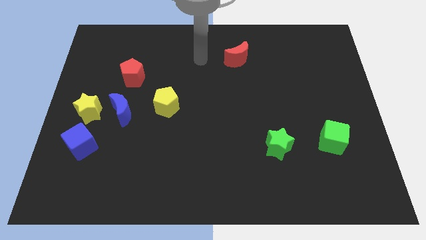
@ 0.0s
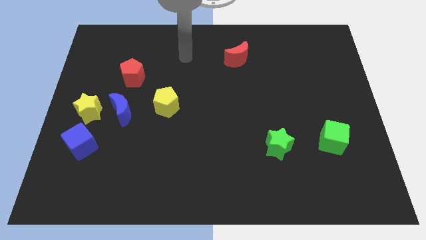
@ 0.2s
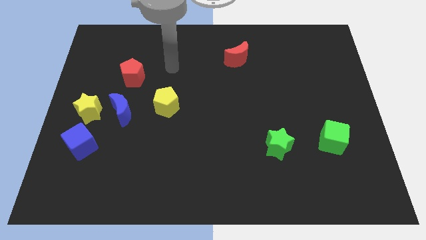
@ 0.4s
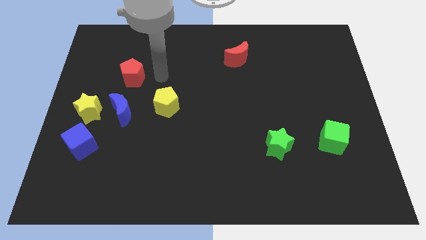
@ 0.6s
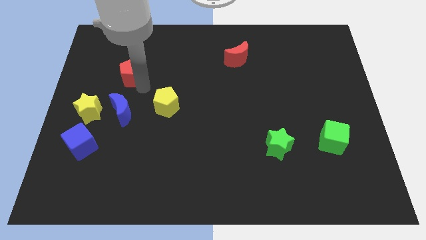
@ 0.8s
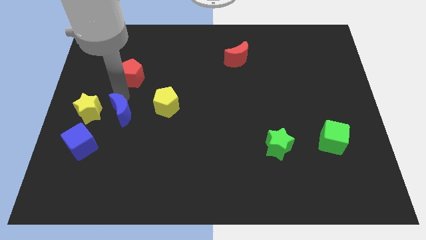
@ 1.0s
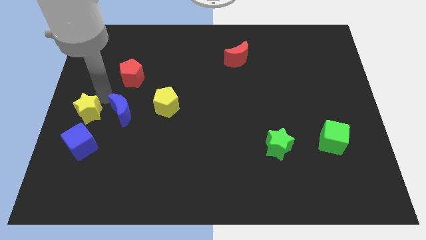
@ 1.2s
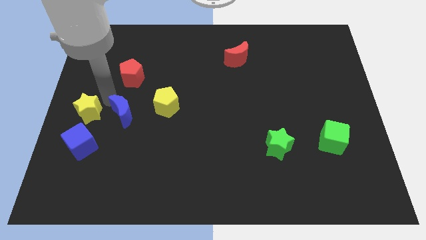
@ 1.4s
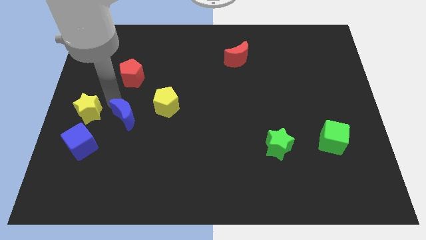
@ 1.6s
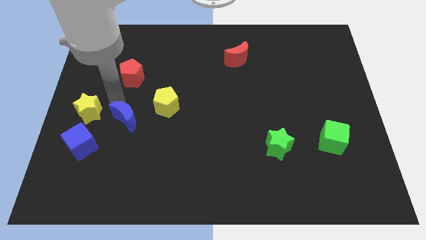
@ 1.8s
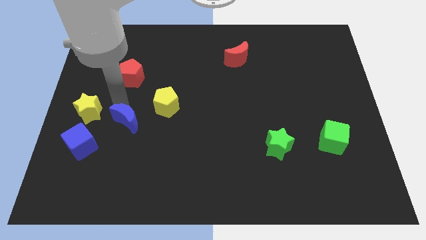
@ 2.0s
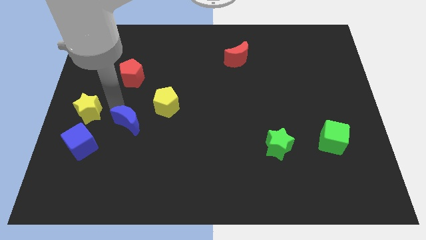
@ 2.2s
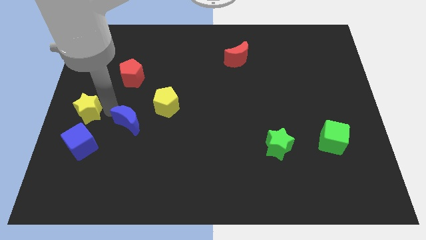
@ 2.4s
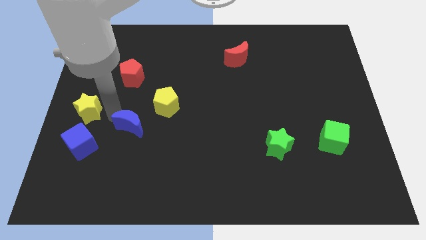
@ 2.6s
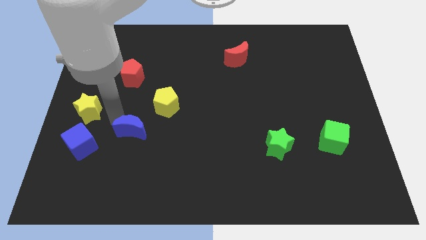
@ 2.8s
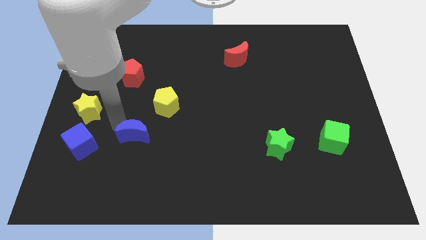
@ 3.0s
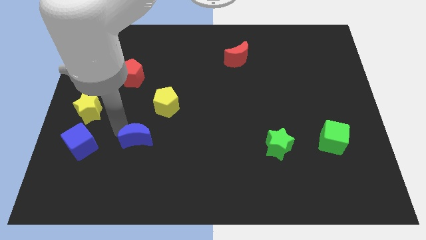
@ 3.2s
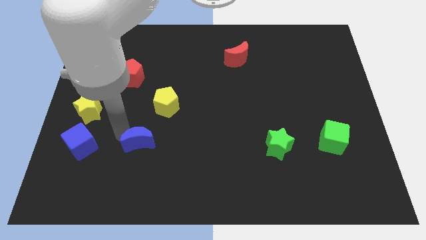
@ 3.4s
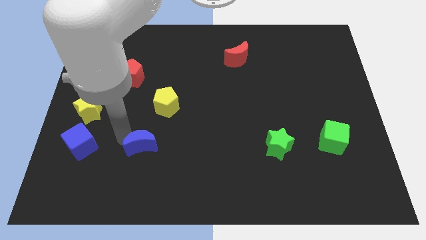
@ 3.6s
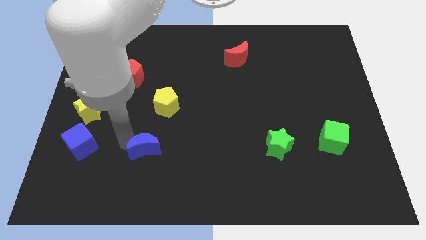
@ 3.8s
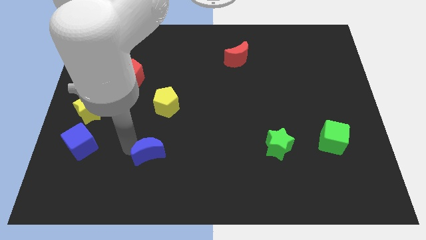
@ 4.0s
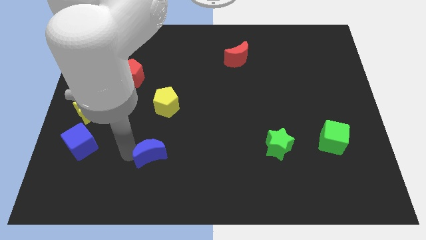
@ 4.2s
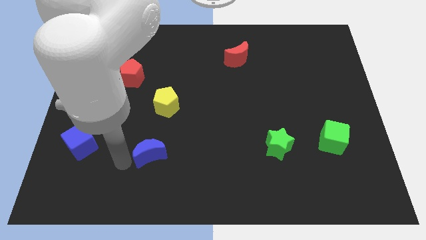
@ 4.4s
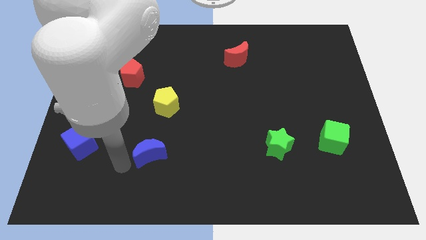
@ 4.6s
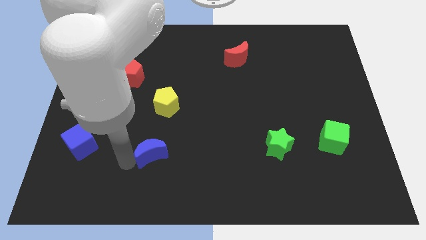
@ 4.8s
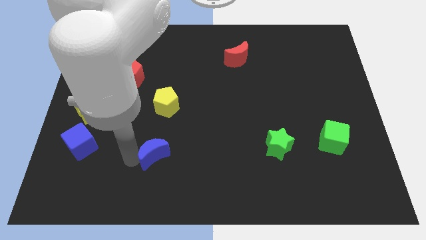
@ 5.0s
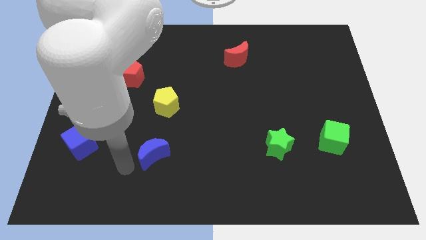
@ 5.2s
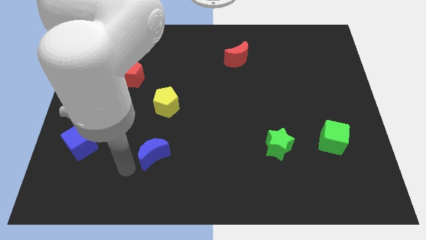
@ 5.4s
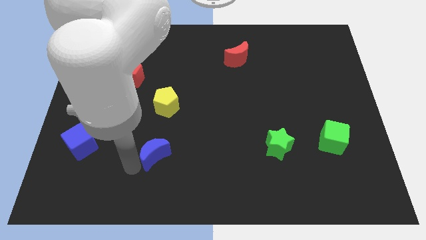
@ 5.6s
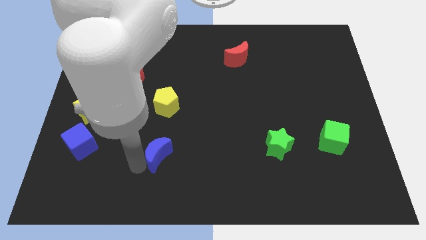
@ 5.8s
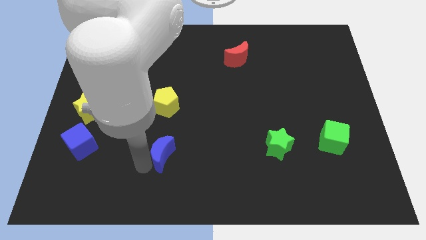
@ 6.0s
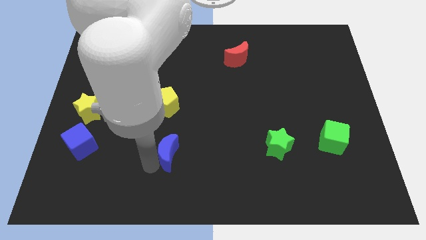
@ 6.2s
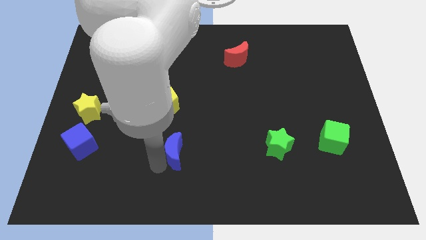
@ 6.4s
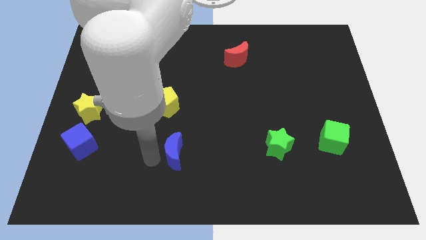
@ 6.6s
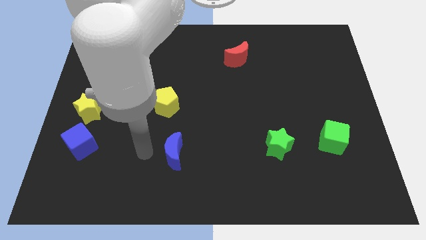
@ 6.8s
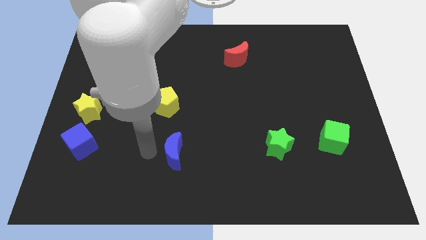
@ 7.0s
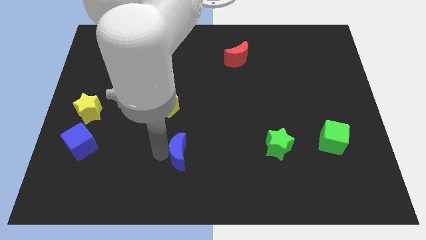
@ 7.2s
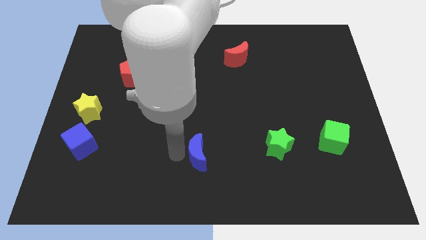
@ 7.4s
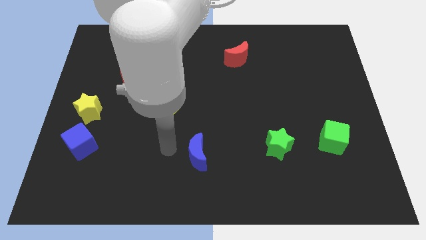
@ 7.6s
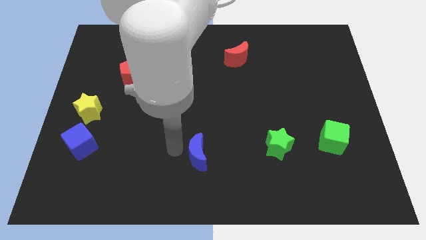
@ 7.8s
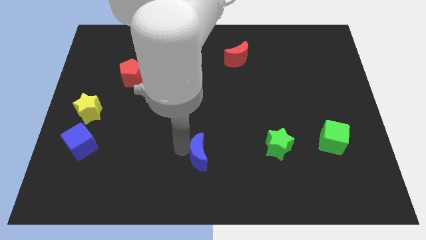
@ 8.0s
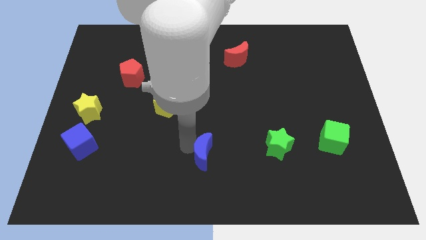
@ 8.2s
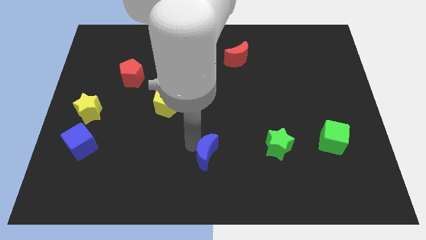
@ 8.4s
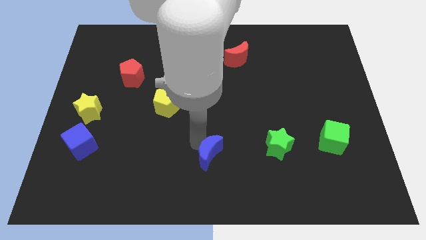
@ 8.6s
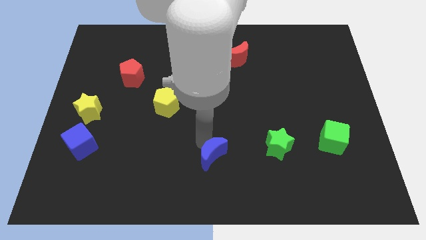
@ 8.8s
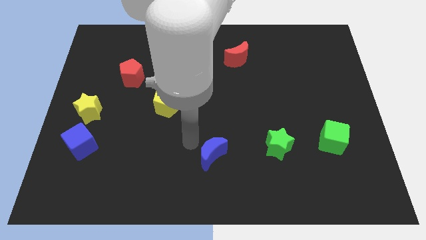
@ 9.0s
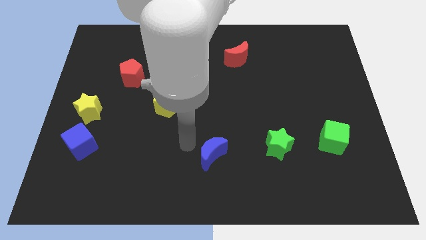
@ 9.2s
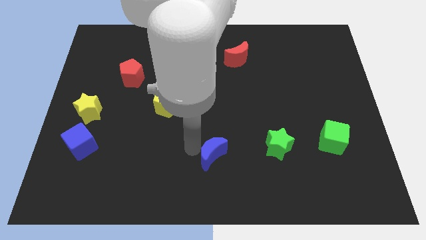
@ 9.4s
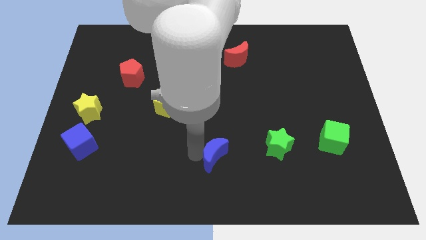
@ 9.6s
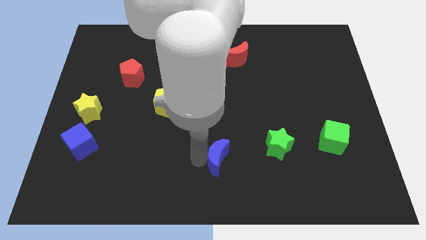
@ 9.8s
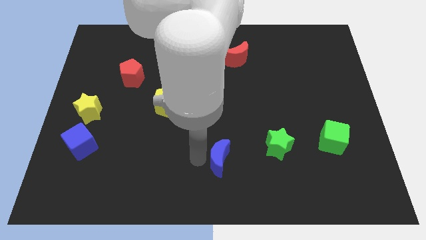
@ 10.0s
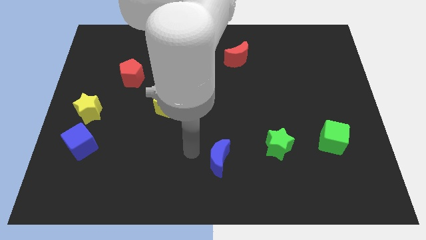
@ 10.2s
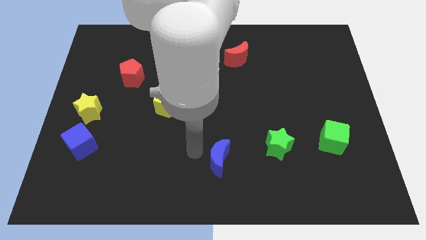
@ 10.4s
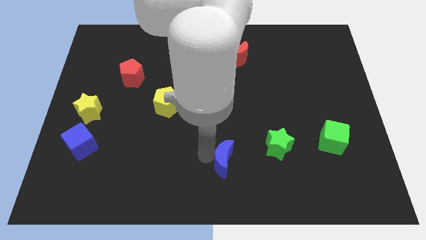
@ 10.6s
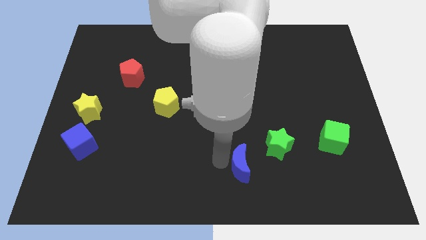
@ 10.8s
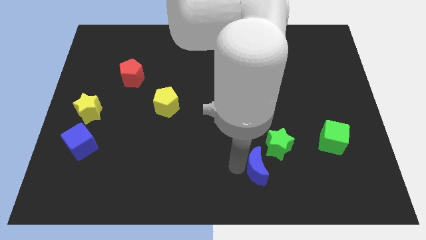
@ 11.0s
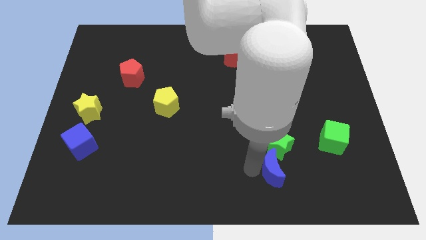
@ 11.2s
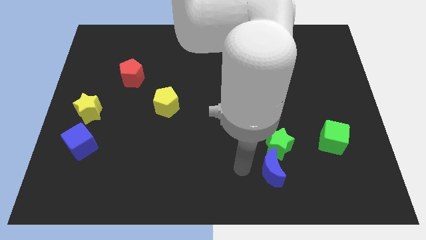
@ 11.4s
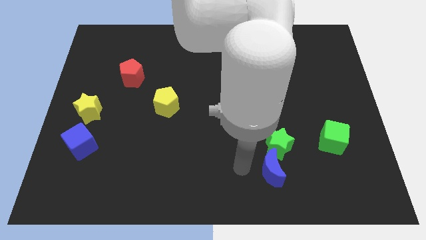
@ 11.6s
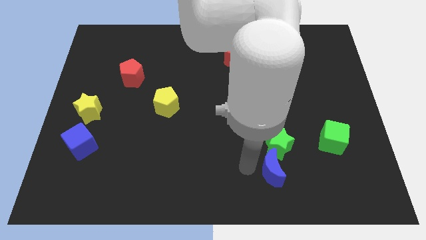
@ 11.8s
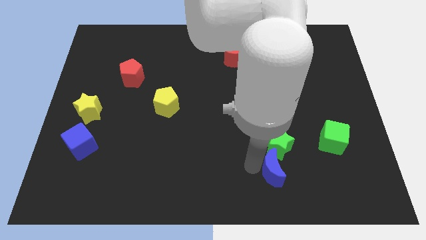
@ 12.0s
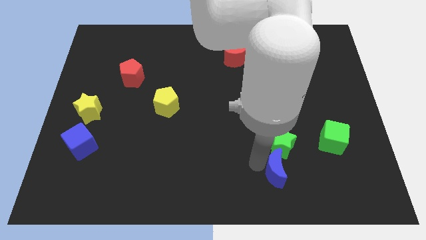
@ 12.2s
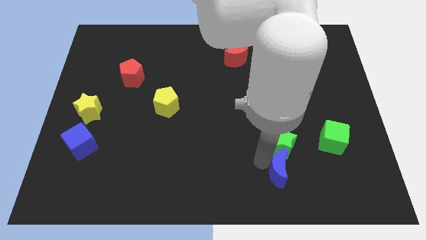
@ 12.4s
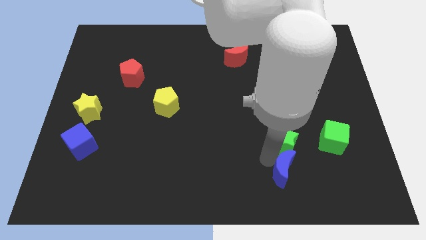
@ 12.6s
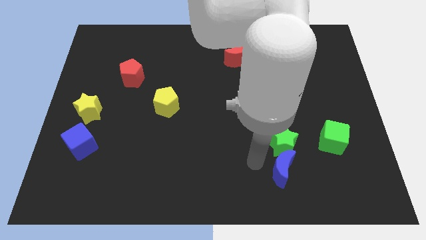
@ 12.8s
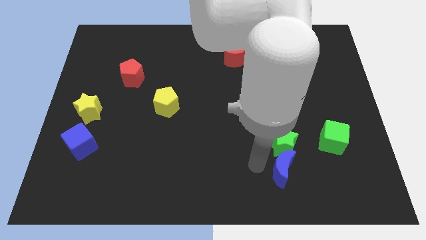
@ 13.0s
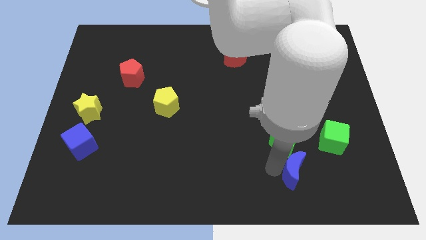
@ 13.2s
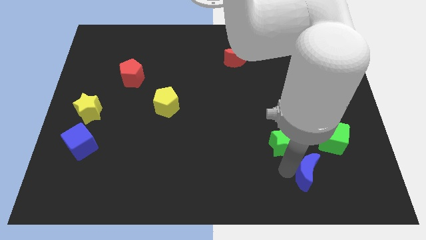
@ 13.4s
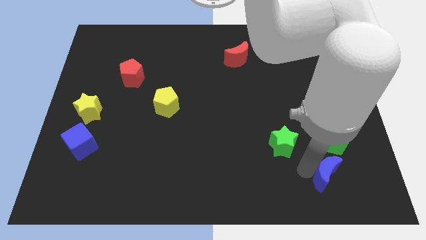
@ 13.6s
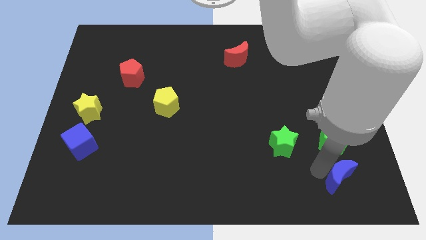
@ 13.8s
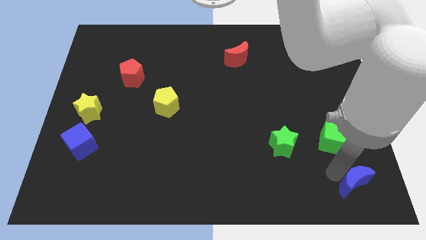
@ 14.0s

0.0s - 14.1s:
move the blue moon to the lower right corner
